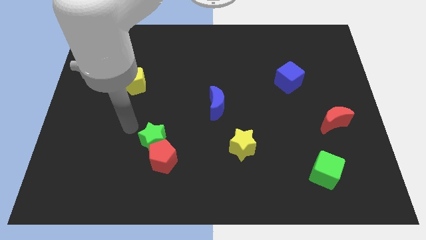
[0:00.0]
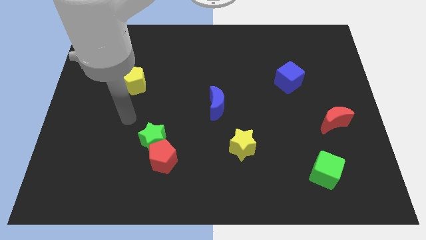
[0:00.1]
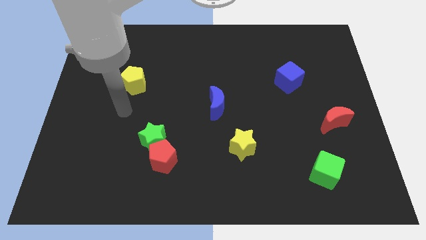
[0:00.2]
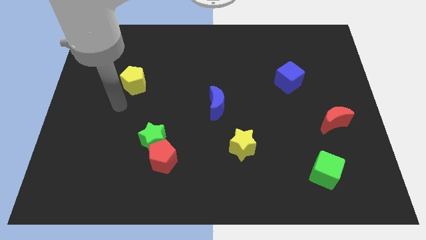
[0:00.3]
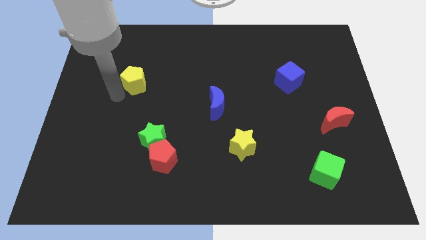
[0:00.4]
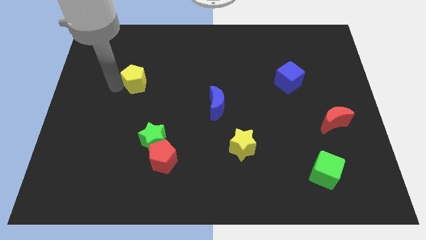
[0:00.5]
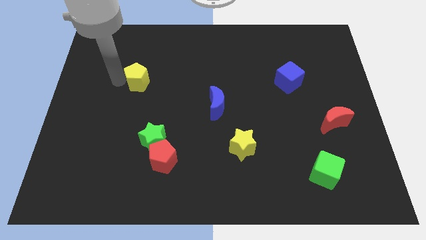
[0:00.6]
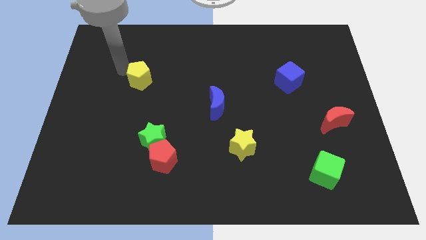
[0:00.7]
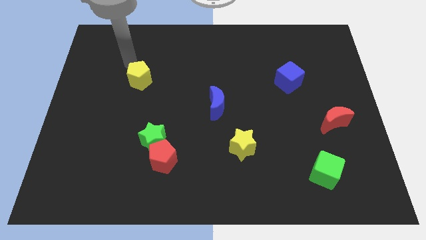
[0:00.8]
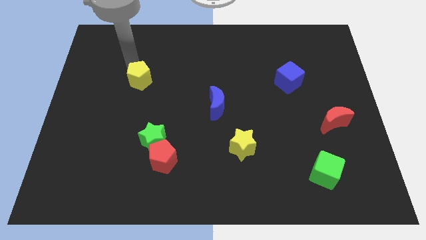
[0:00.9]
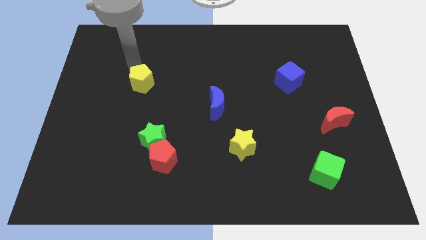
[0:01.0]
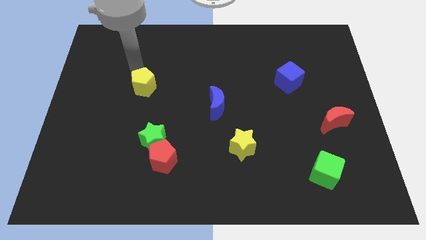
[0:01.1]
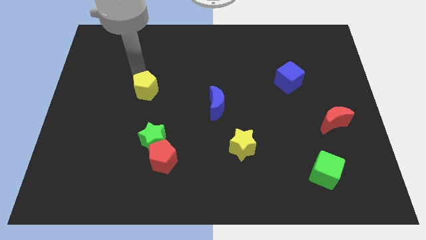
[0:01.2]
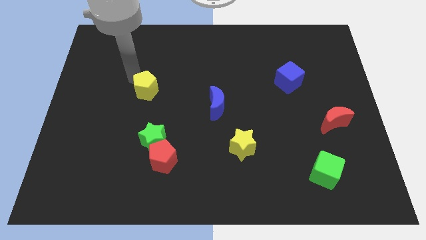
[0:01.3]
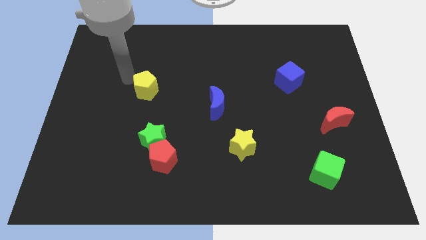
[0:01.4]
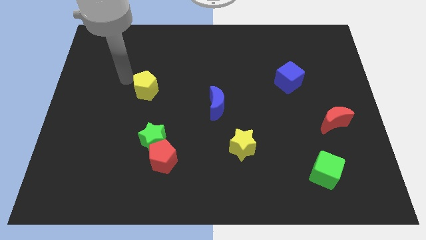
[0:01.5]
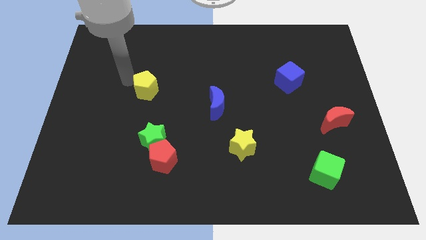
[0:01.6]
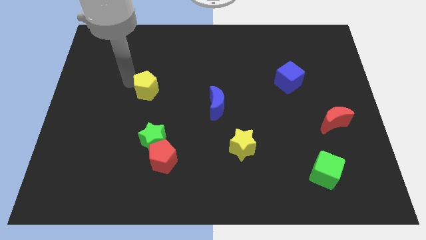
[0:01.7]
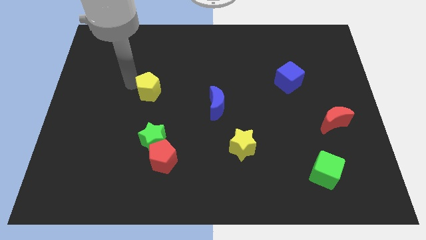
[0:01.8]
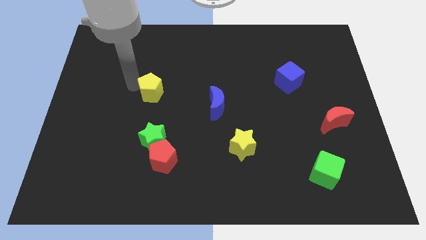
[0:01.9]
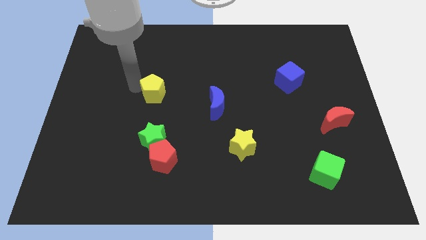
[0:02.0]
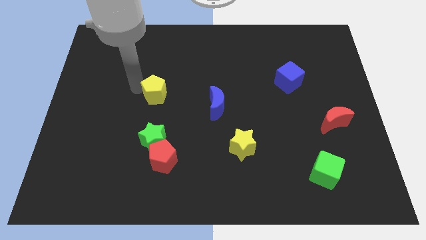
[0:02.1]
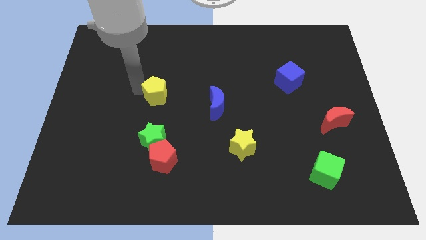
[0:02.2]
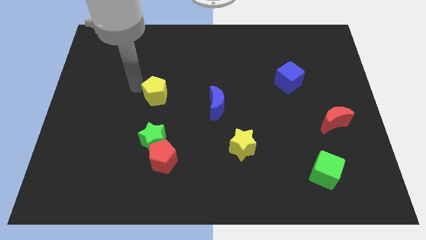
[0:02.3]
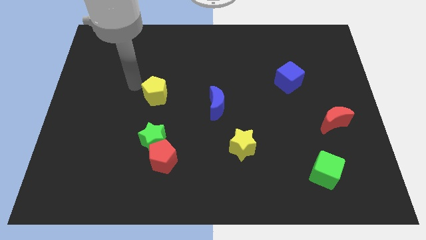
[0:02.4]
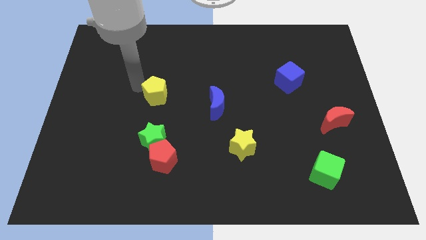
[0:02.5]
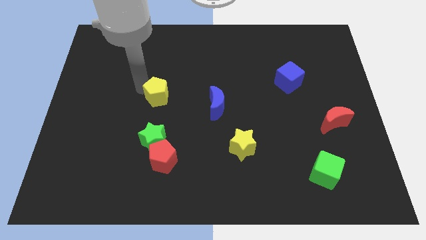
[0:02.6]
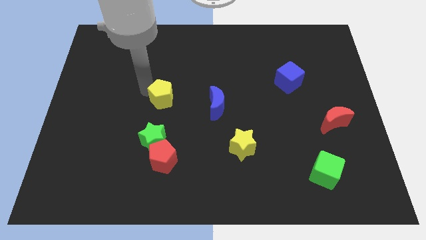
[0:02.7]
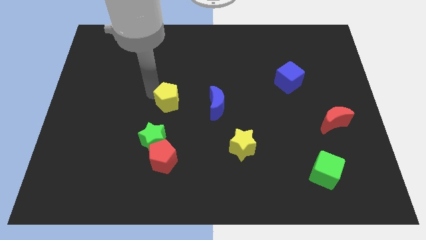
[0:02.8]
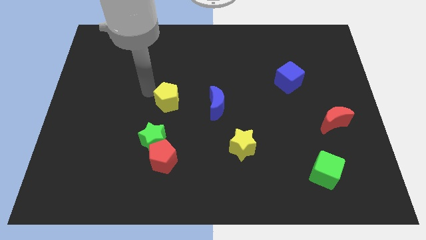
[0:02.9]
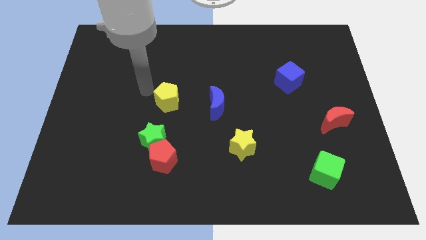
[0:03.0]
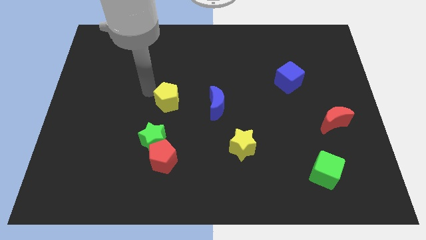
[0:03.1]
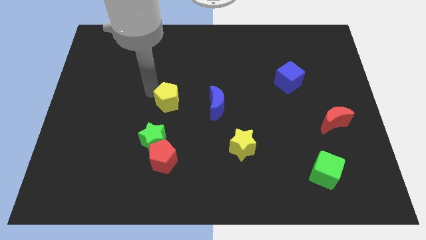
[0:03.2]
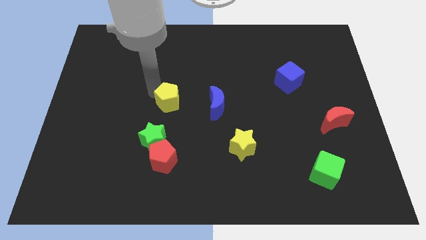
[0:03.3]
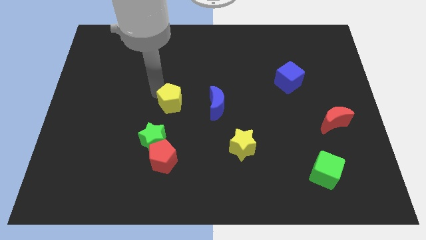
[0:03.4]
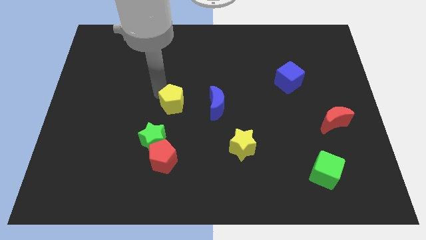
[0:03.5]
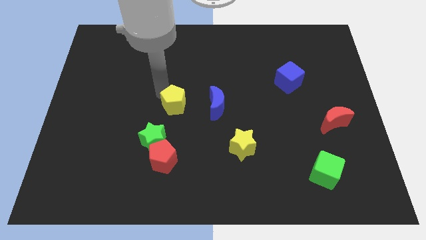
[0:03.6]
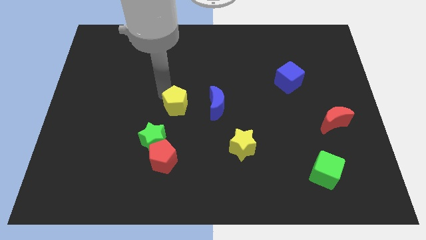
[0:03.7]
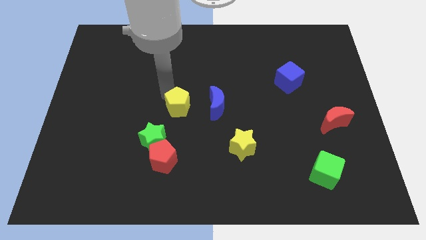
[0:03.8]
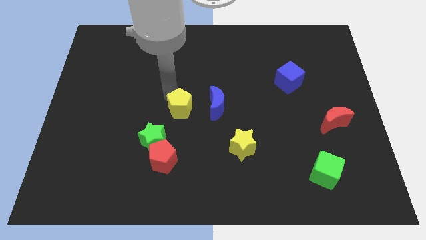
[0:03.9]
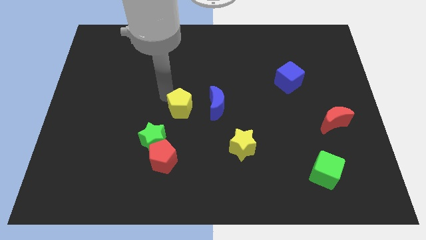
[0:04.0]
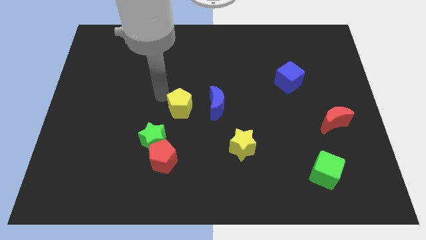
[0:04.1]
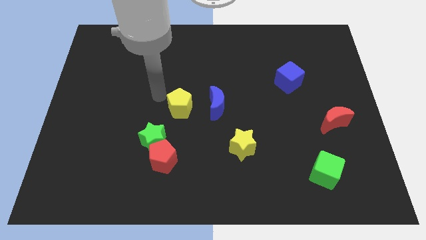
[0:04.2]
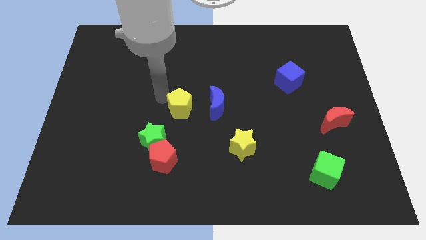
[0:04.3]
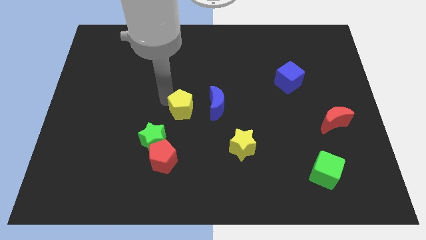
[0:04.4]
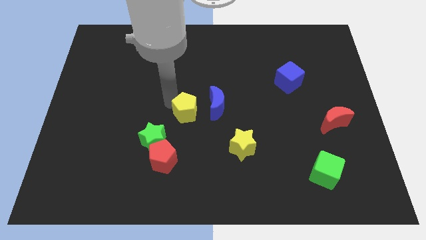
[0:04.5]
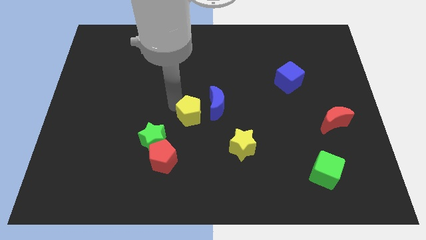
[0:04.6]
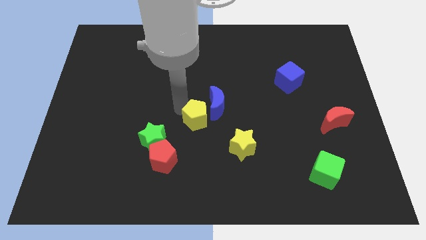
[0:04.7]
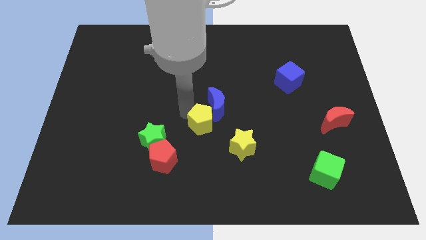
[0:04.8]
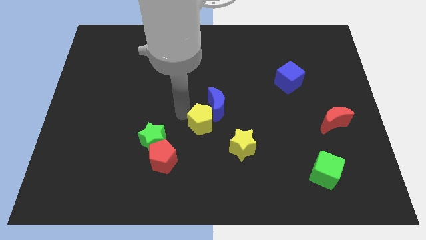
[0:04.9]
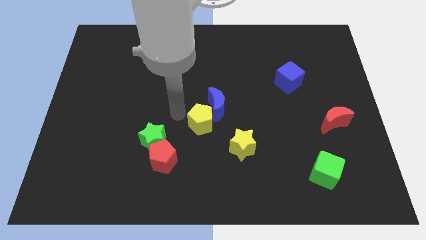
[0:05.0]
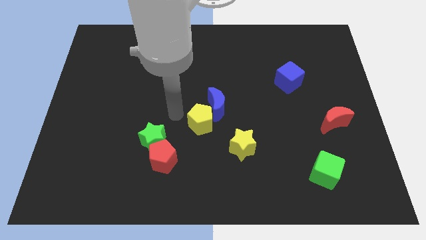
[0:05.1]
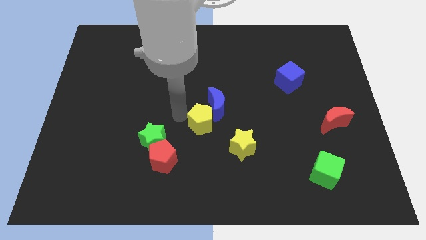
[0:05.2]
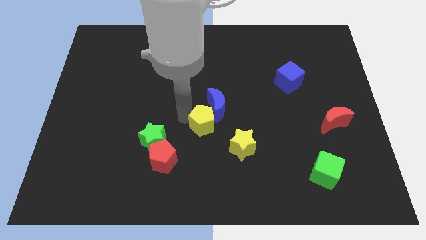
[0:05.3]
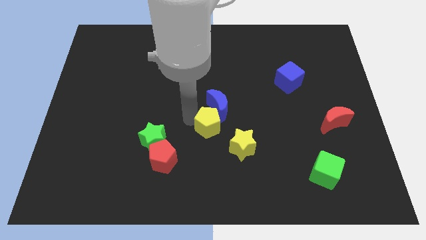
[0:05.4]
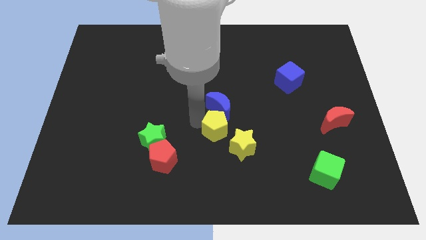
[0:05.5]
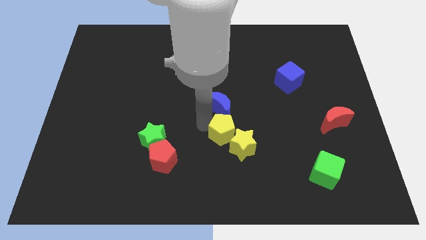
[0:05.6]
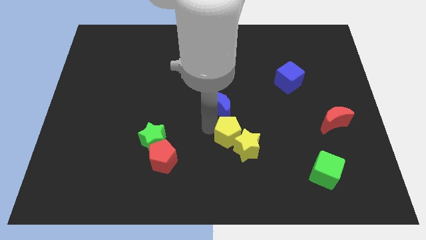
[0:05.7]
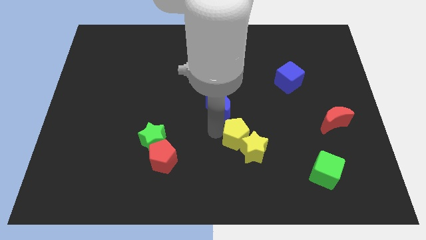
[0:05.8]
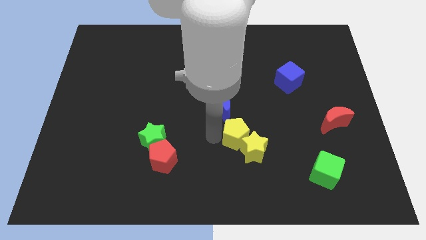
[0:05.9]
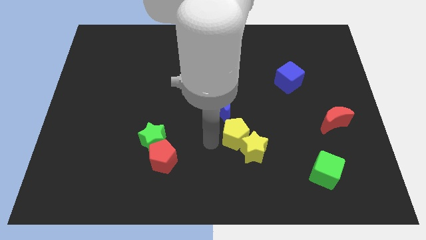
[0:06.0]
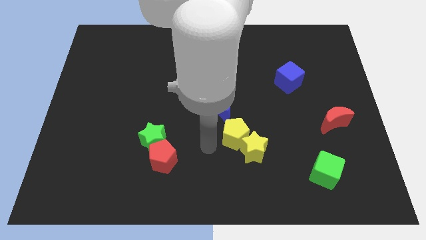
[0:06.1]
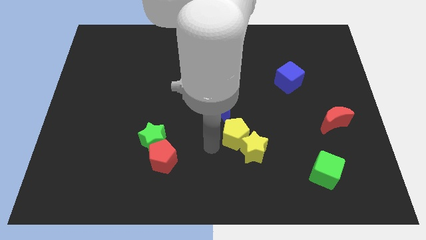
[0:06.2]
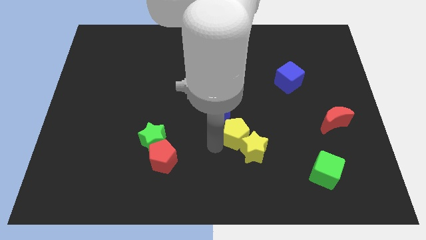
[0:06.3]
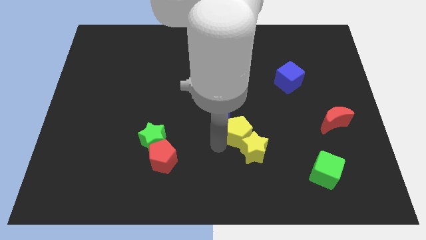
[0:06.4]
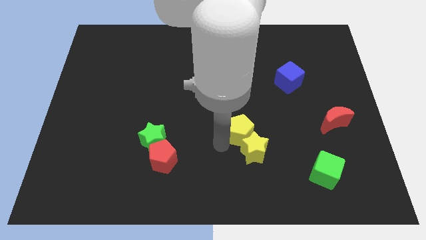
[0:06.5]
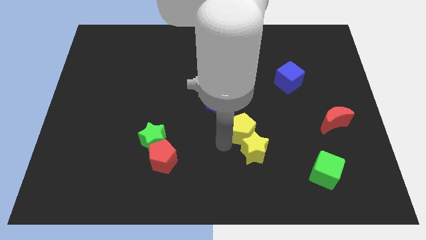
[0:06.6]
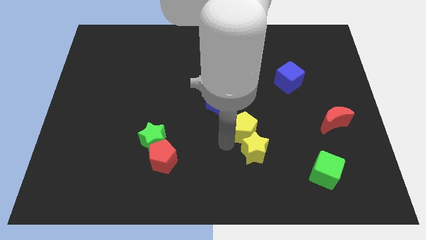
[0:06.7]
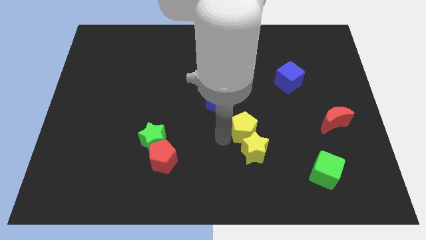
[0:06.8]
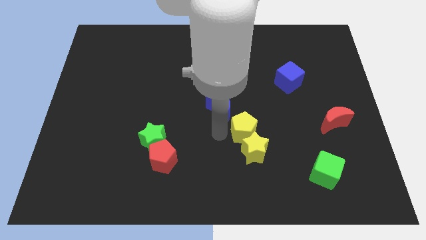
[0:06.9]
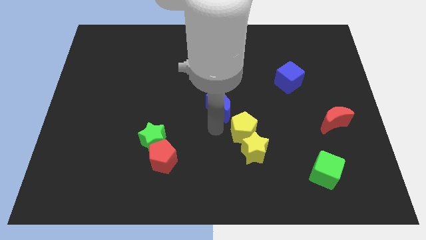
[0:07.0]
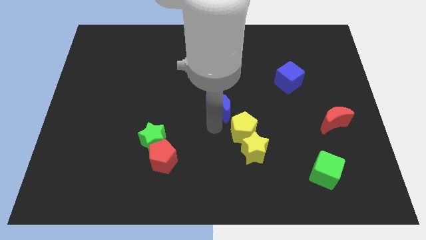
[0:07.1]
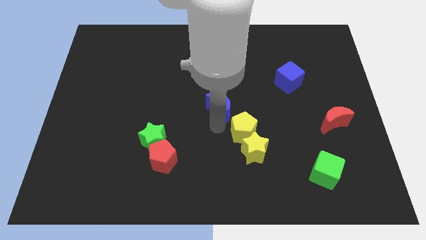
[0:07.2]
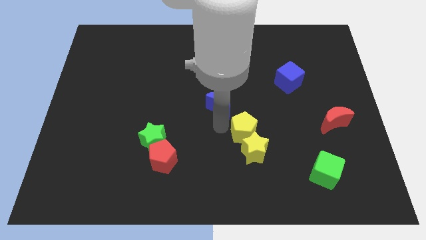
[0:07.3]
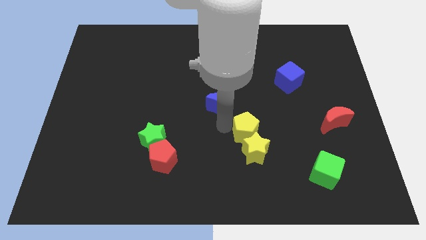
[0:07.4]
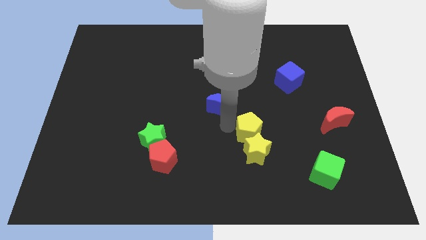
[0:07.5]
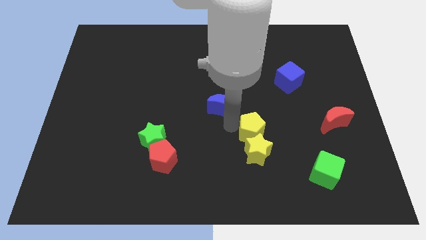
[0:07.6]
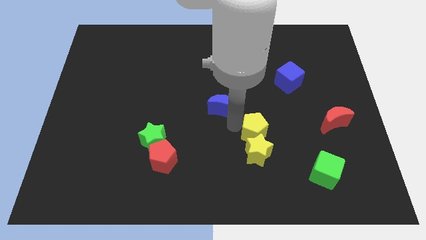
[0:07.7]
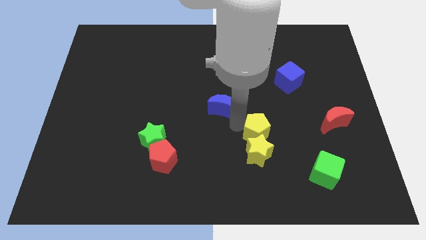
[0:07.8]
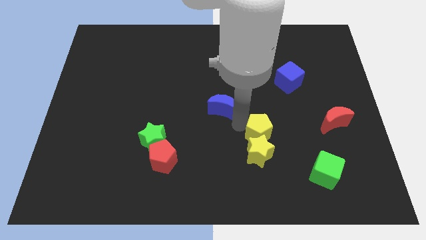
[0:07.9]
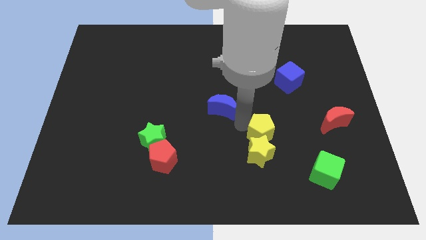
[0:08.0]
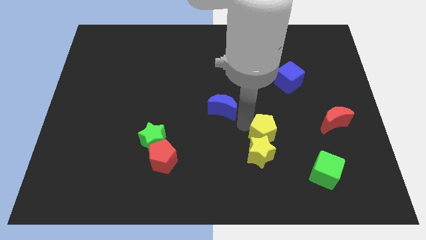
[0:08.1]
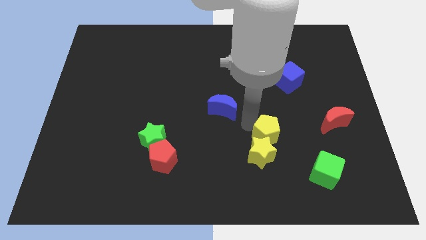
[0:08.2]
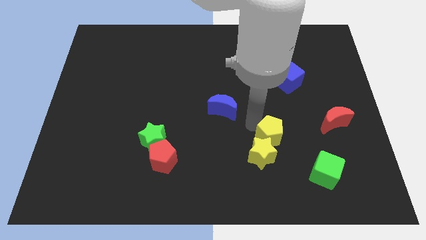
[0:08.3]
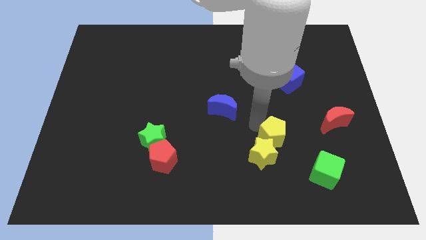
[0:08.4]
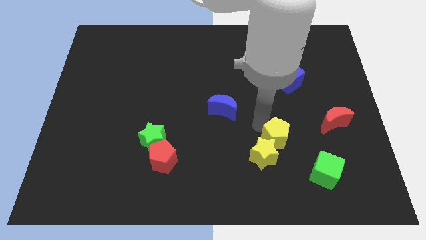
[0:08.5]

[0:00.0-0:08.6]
slide the yellow pentagon to the top left side of the green cube
